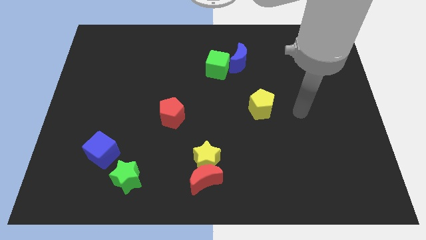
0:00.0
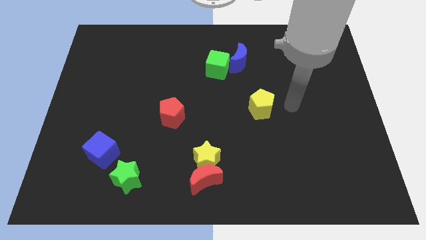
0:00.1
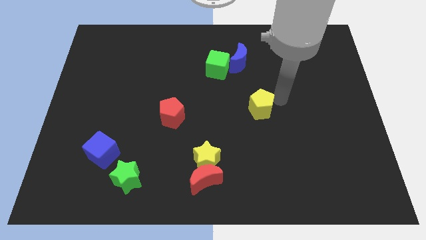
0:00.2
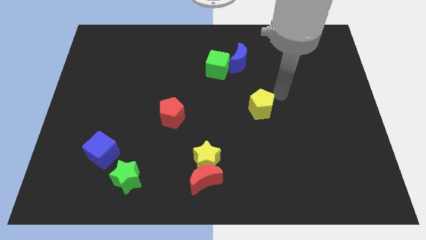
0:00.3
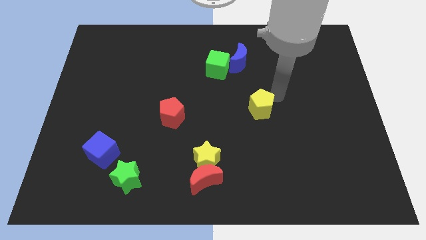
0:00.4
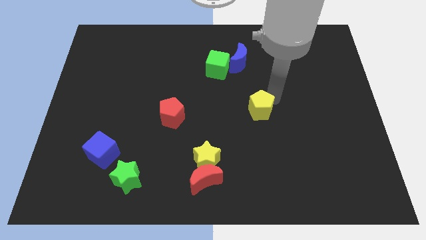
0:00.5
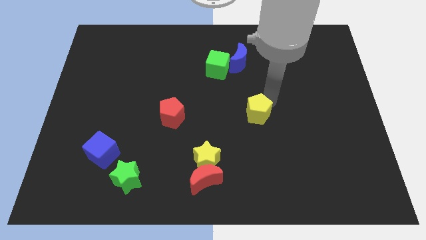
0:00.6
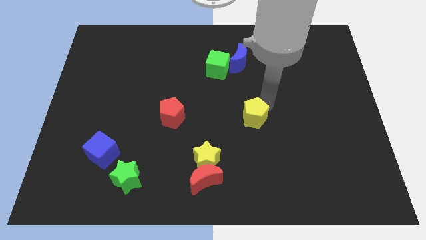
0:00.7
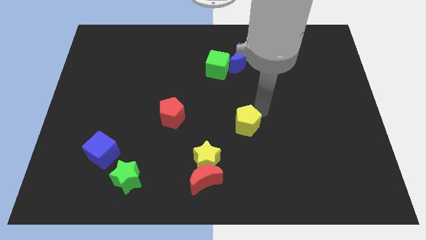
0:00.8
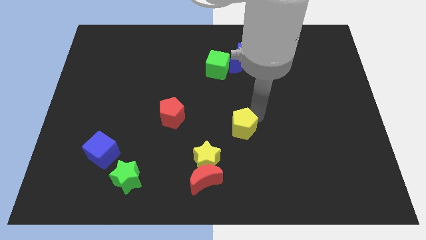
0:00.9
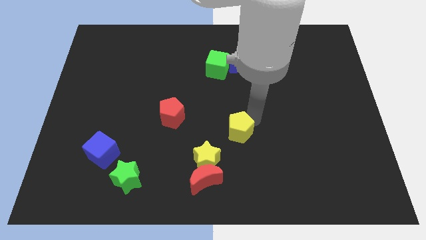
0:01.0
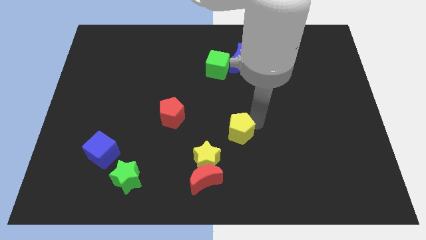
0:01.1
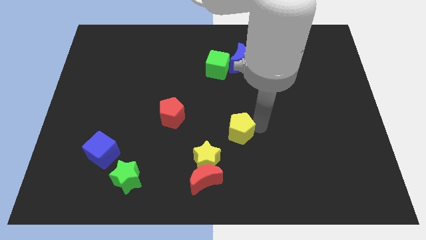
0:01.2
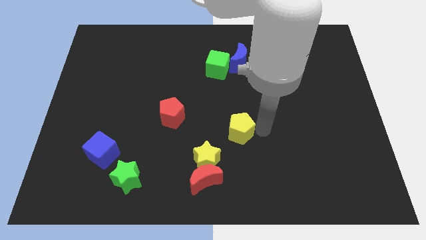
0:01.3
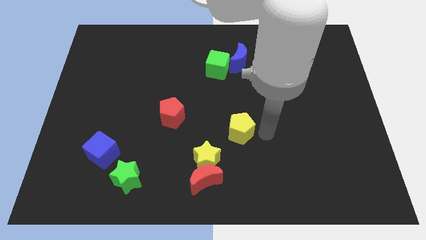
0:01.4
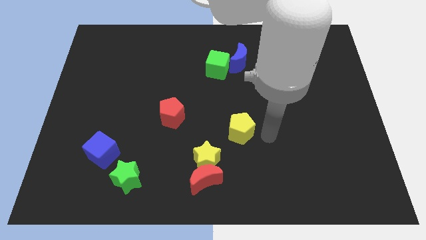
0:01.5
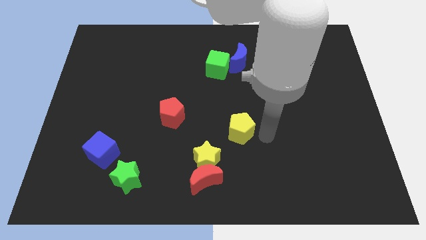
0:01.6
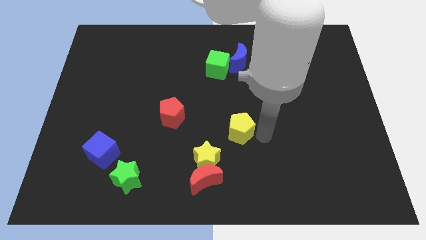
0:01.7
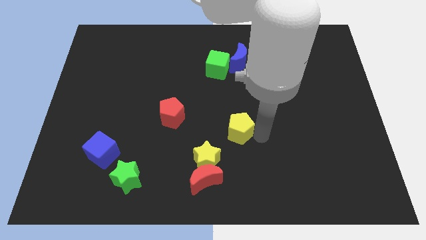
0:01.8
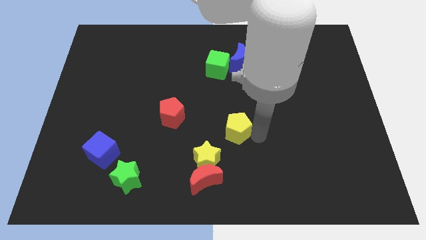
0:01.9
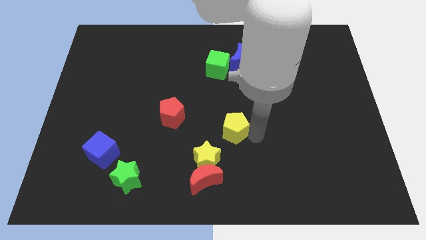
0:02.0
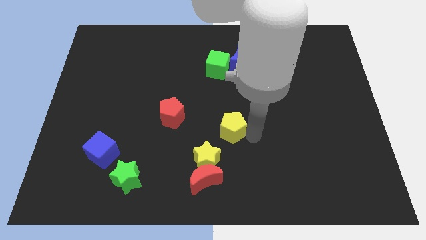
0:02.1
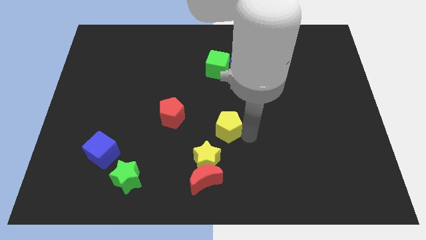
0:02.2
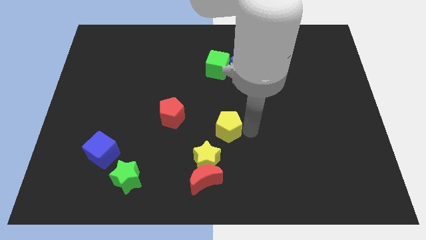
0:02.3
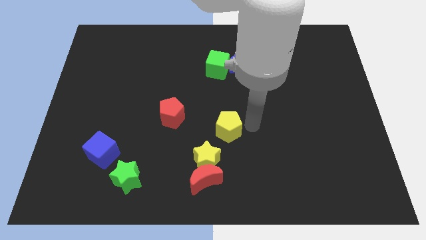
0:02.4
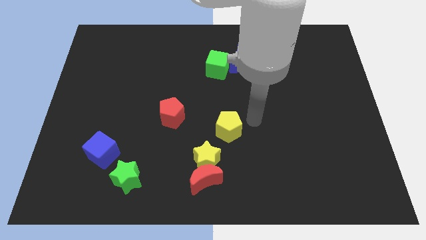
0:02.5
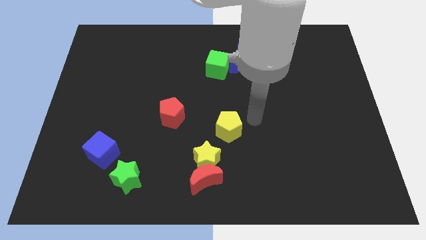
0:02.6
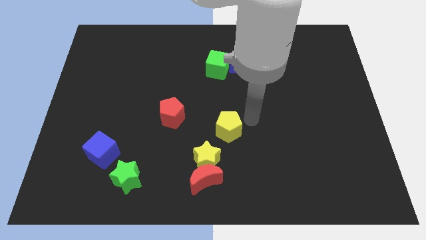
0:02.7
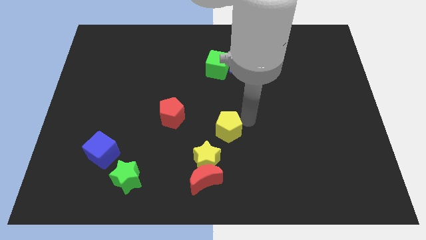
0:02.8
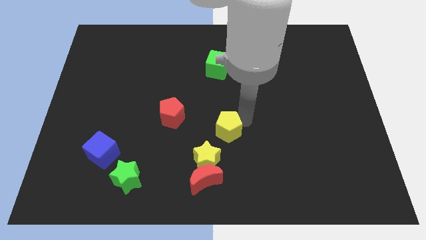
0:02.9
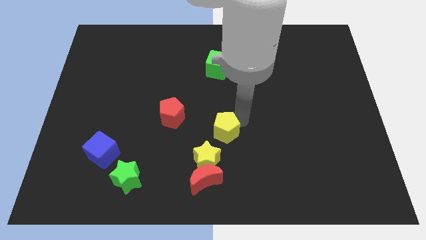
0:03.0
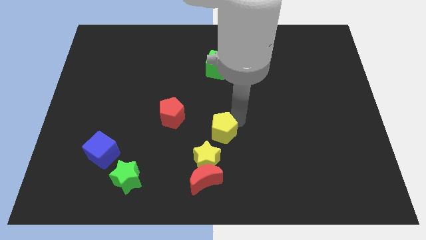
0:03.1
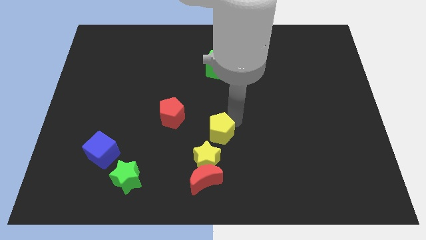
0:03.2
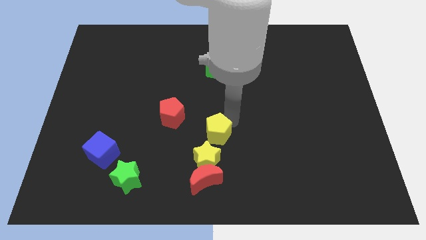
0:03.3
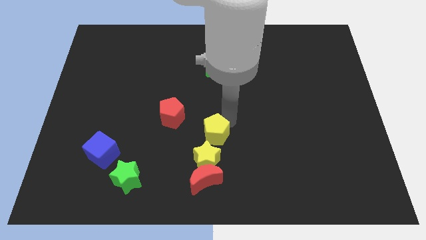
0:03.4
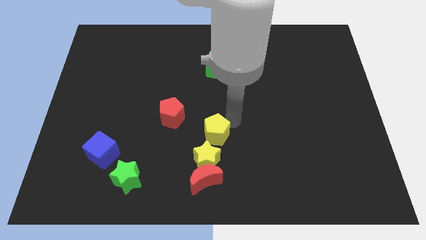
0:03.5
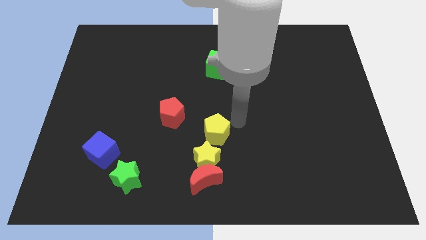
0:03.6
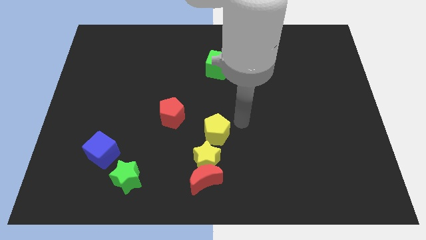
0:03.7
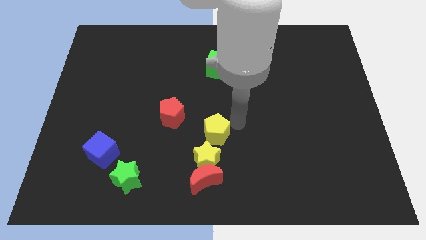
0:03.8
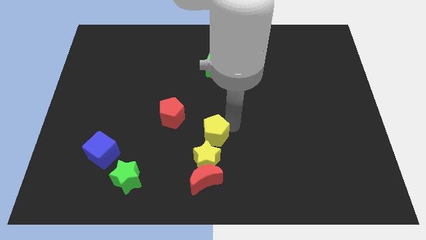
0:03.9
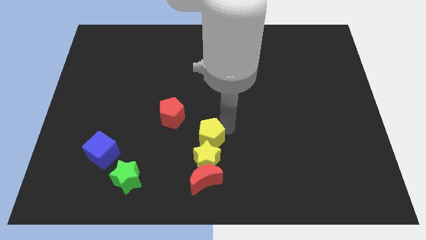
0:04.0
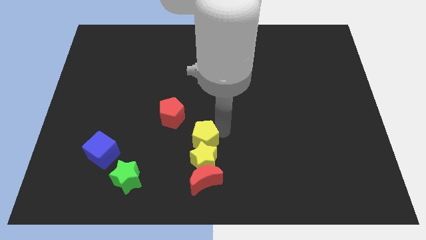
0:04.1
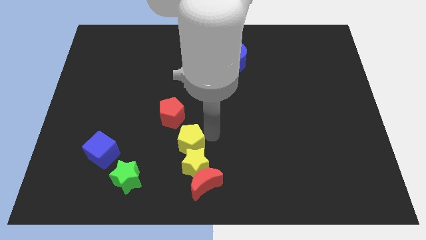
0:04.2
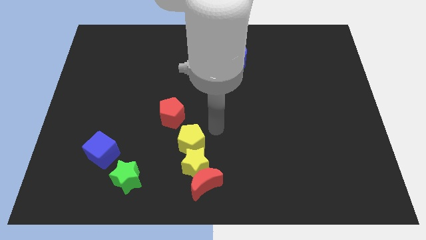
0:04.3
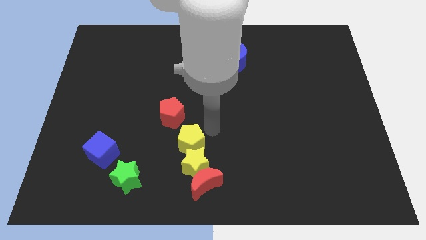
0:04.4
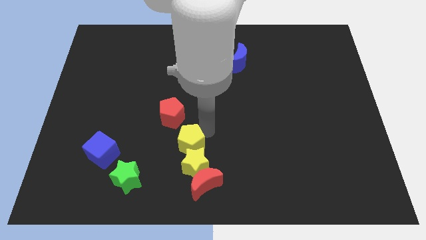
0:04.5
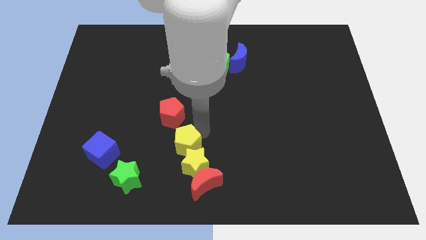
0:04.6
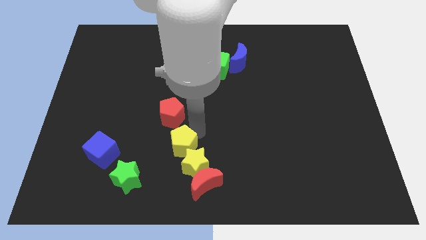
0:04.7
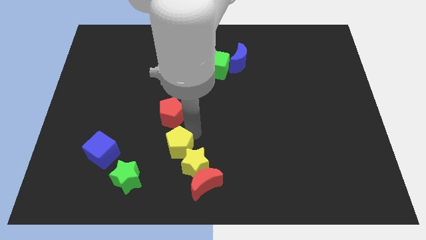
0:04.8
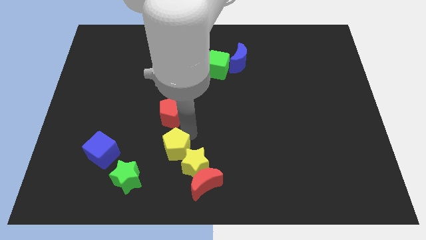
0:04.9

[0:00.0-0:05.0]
slide the yellow pentagon to the left of the yellow star

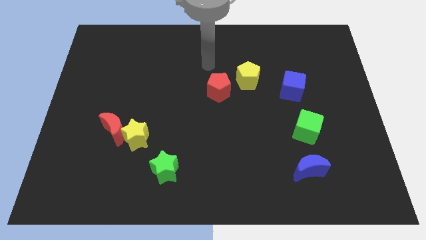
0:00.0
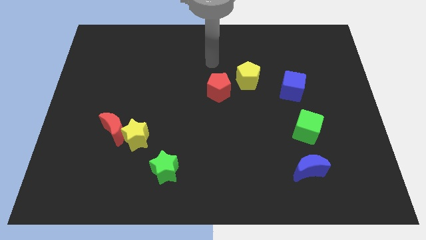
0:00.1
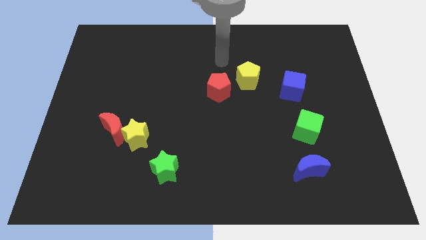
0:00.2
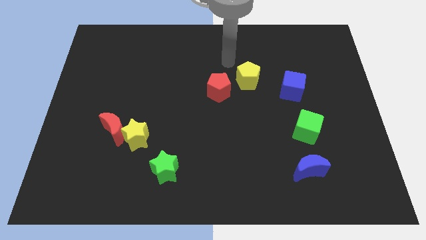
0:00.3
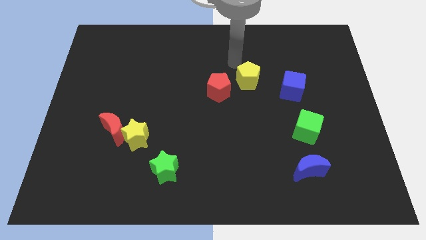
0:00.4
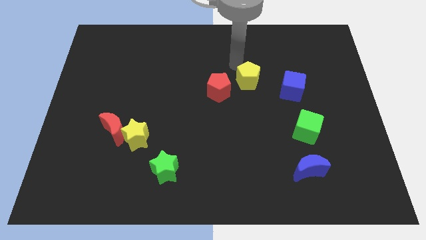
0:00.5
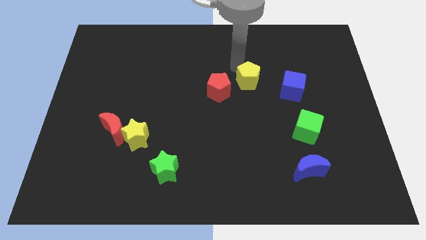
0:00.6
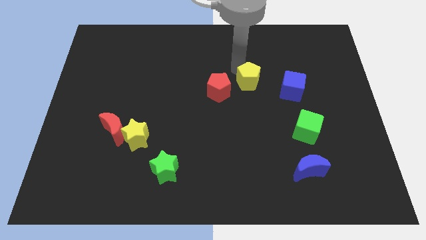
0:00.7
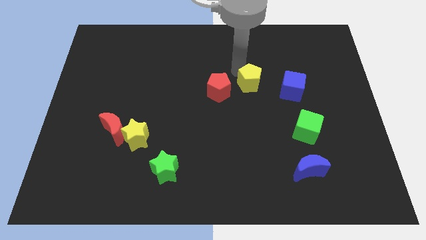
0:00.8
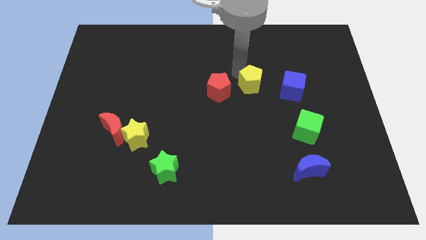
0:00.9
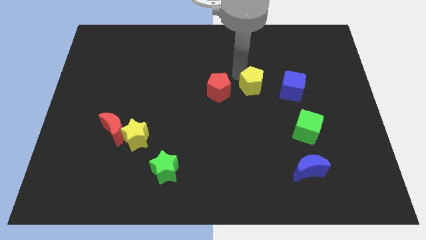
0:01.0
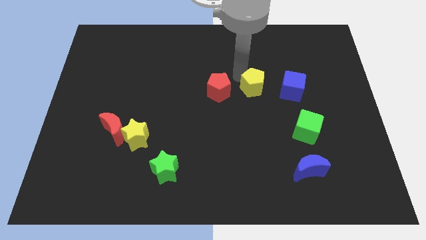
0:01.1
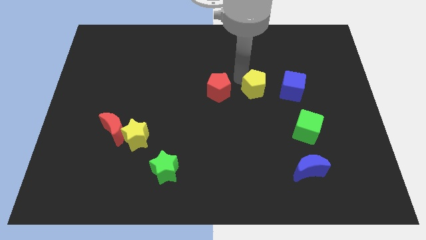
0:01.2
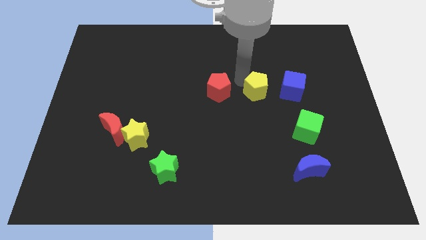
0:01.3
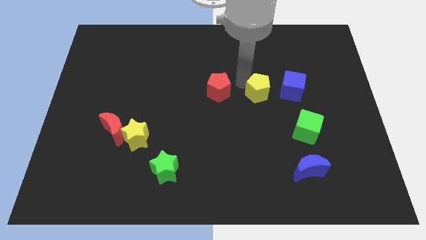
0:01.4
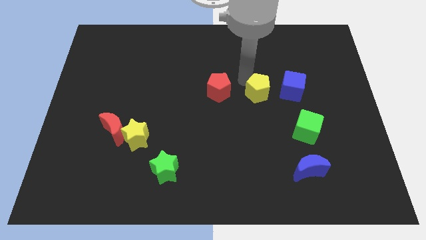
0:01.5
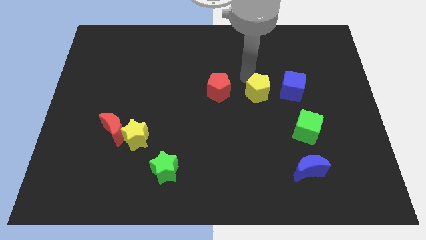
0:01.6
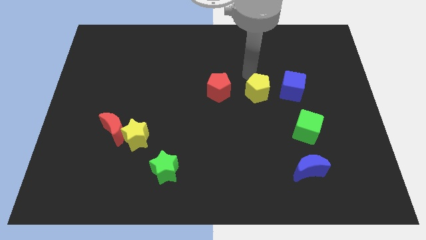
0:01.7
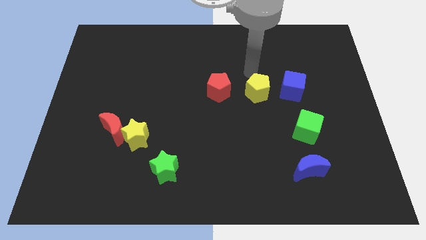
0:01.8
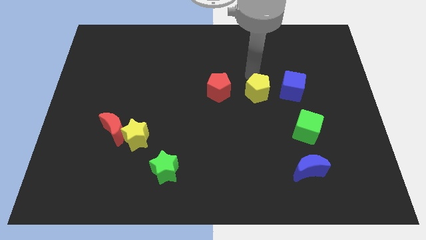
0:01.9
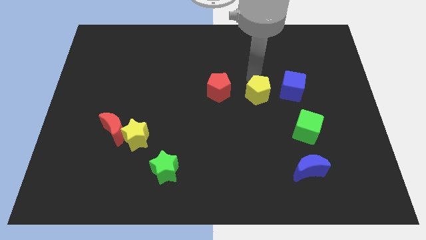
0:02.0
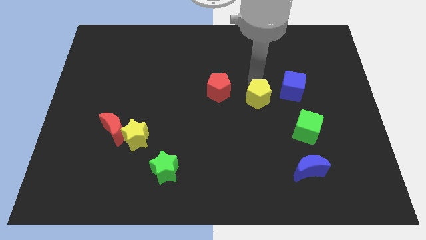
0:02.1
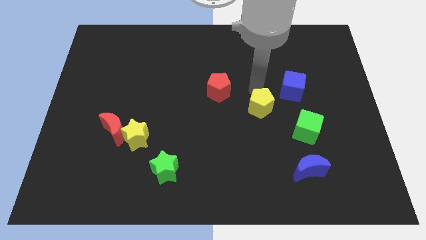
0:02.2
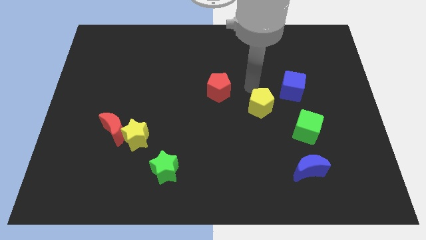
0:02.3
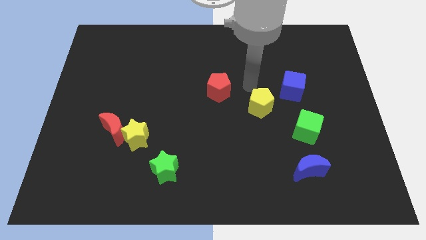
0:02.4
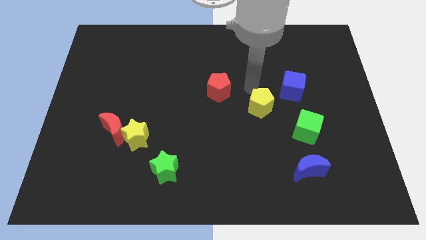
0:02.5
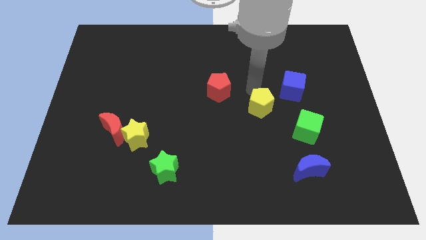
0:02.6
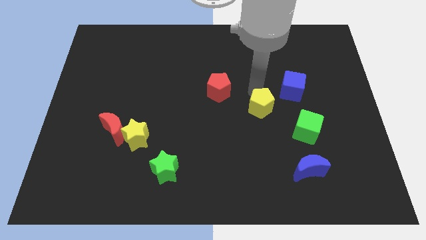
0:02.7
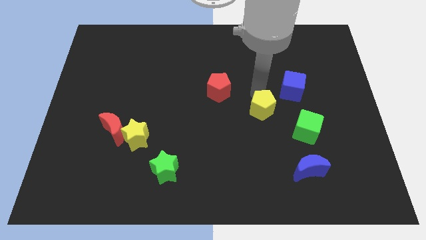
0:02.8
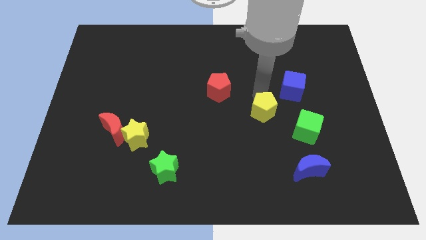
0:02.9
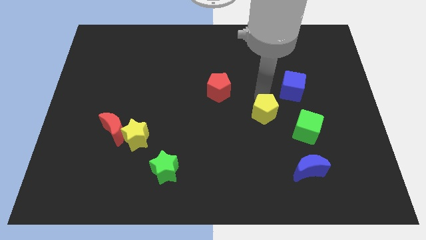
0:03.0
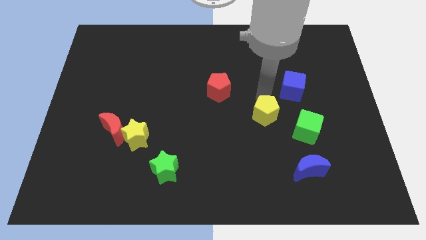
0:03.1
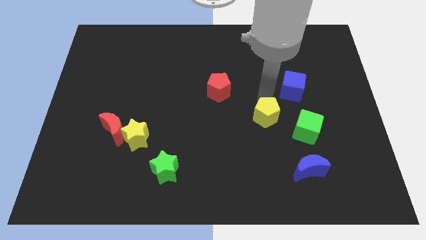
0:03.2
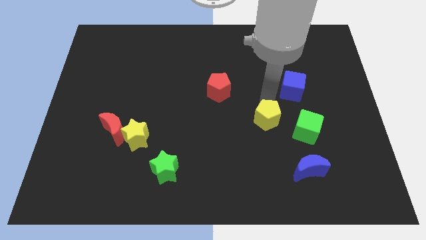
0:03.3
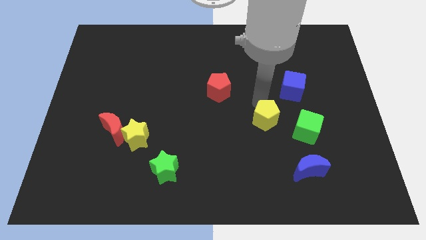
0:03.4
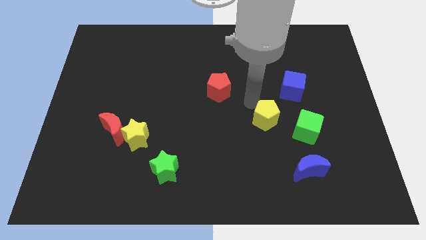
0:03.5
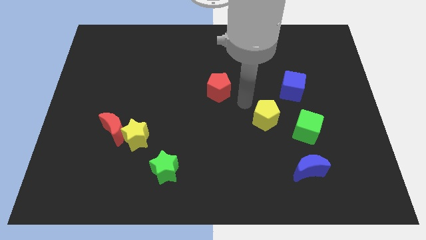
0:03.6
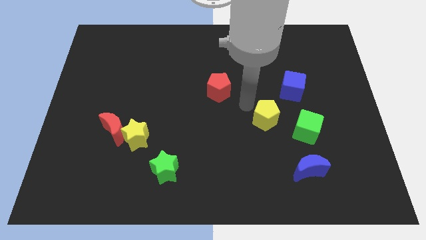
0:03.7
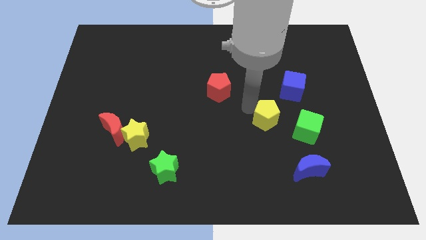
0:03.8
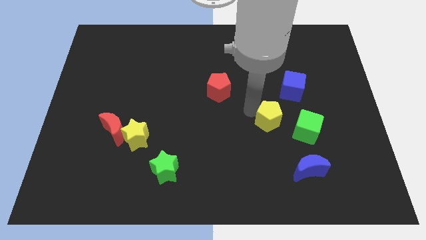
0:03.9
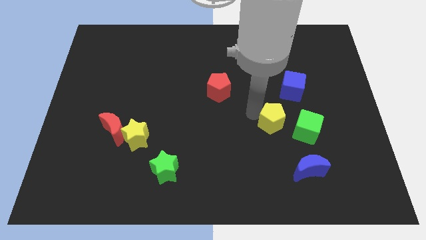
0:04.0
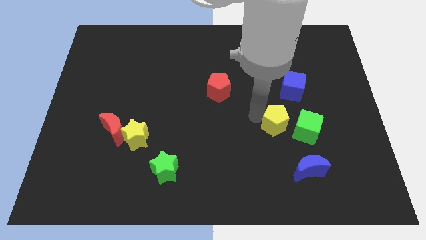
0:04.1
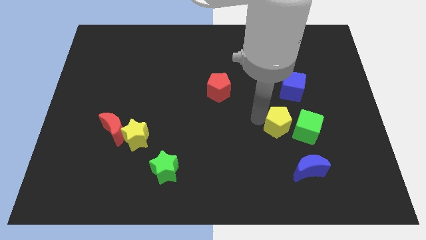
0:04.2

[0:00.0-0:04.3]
move the yellow pentagon below the blue cube
